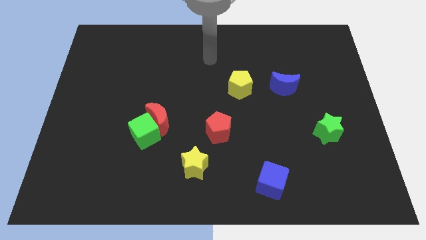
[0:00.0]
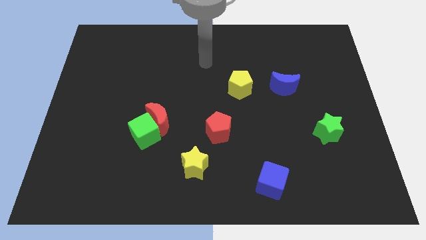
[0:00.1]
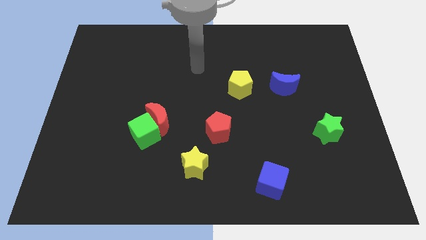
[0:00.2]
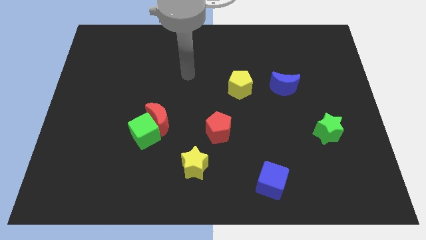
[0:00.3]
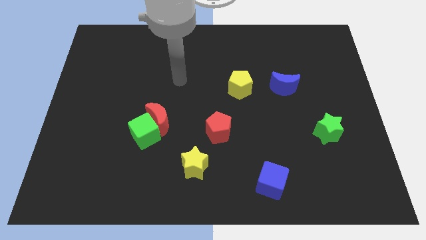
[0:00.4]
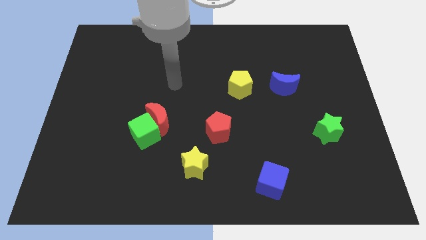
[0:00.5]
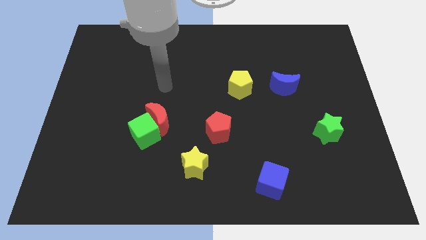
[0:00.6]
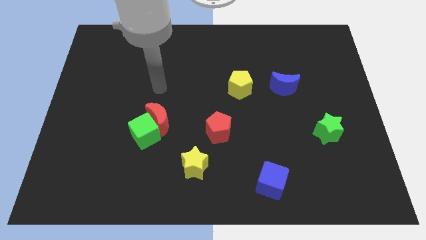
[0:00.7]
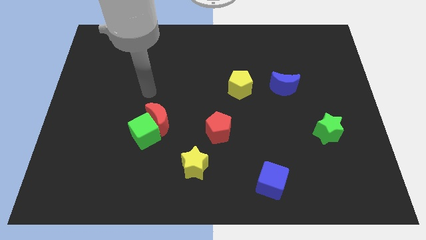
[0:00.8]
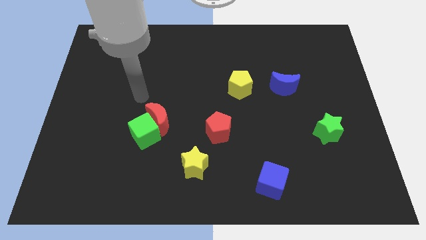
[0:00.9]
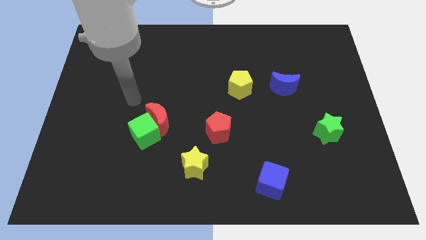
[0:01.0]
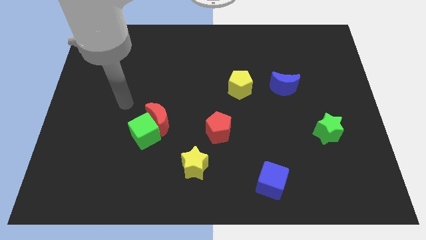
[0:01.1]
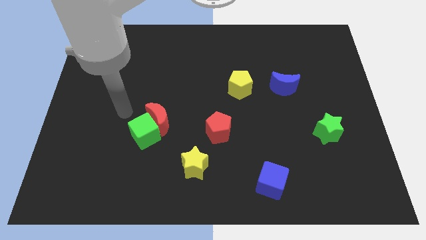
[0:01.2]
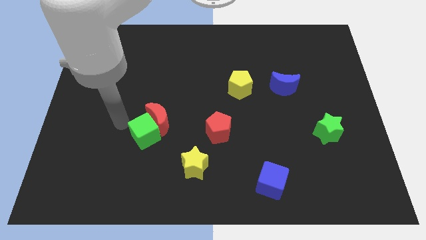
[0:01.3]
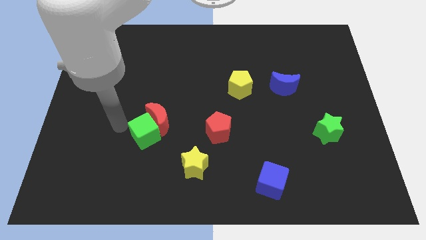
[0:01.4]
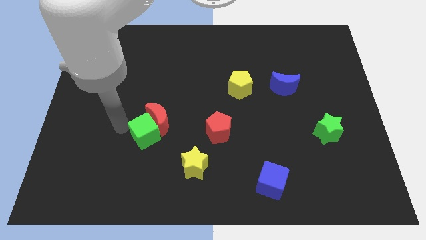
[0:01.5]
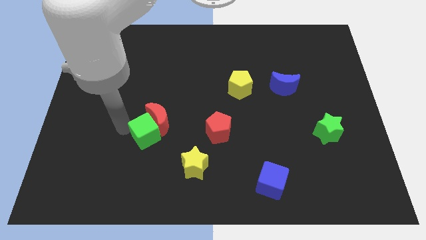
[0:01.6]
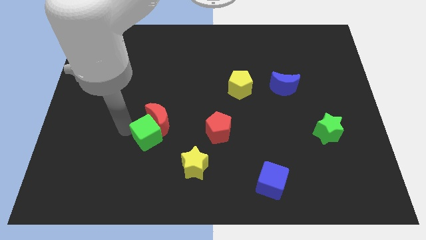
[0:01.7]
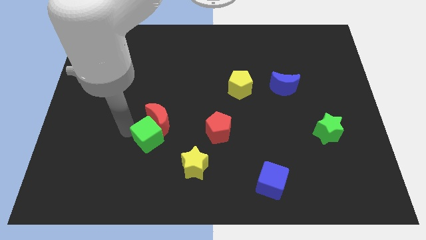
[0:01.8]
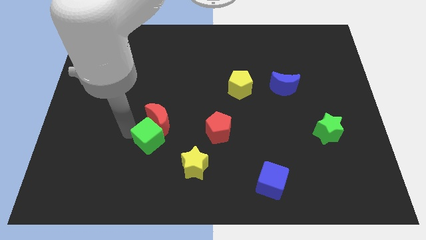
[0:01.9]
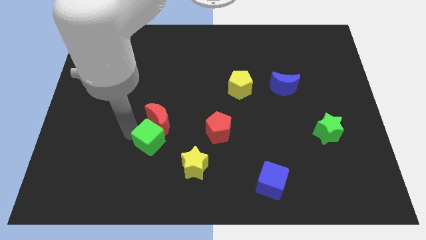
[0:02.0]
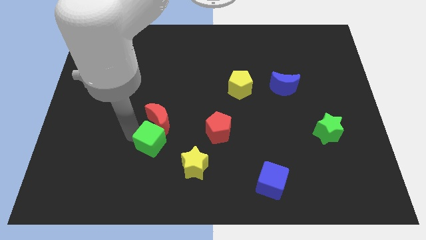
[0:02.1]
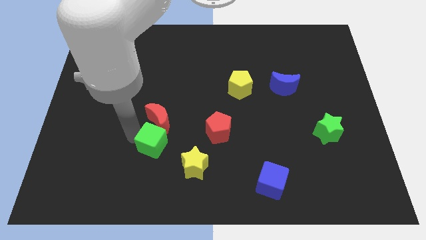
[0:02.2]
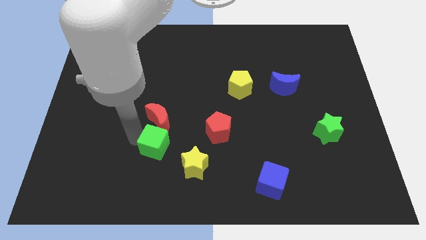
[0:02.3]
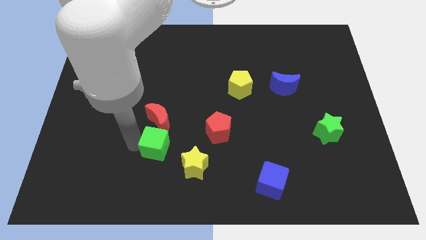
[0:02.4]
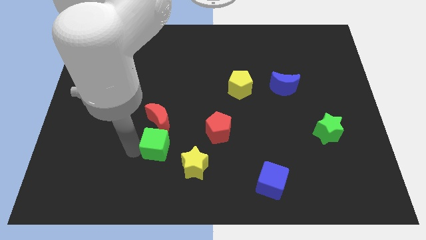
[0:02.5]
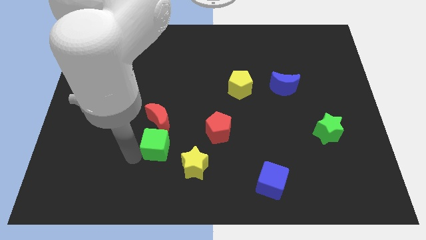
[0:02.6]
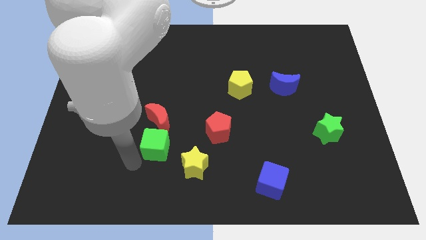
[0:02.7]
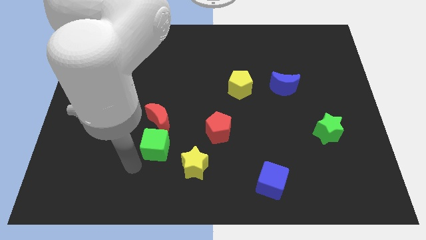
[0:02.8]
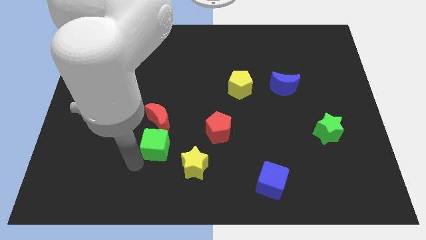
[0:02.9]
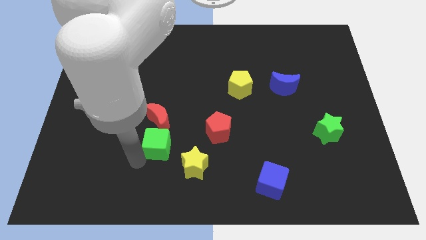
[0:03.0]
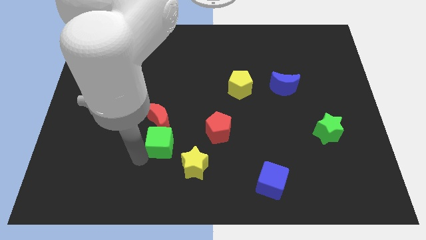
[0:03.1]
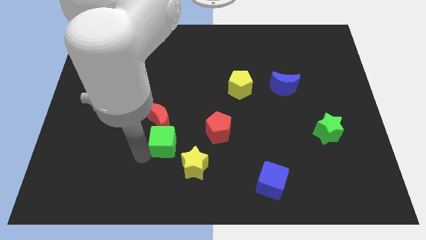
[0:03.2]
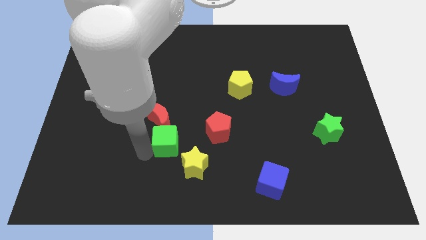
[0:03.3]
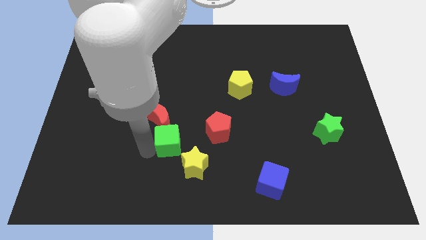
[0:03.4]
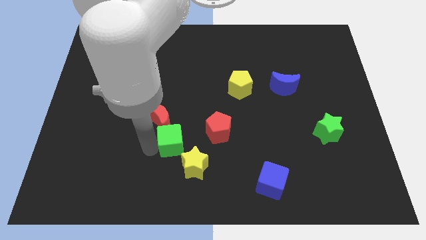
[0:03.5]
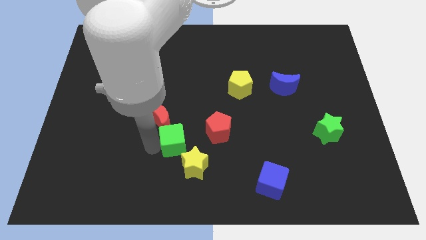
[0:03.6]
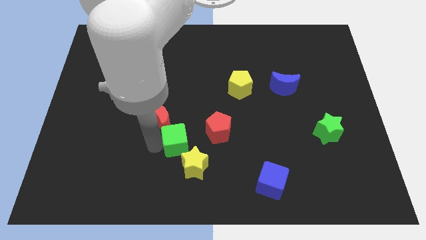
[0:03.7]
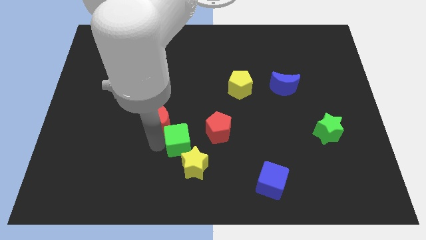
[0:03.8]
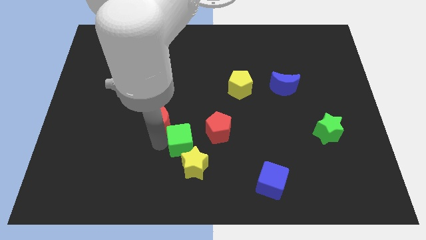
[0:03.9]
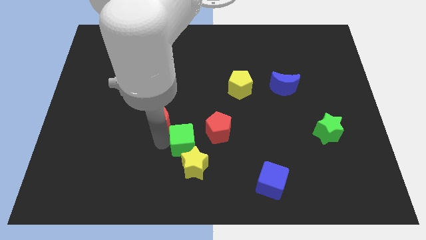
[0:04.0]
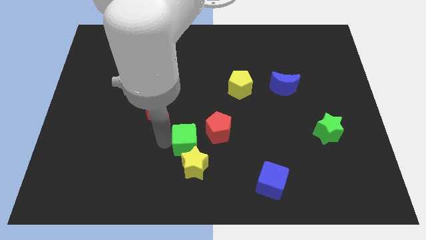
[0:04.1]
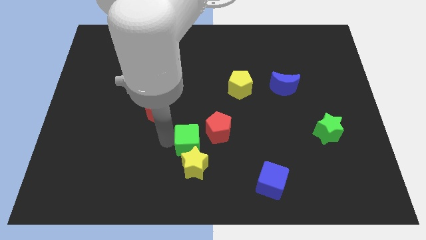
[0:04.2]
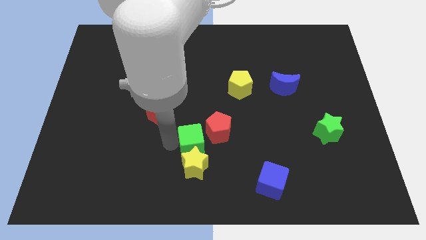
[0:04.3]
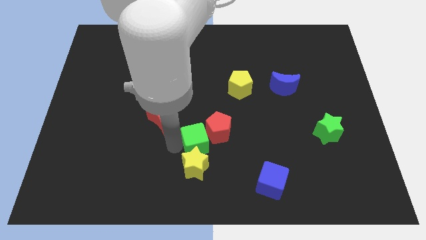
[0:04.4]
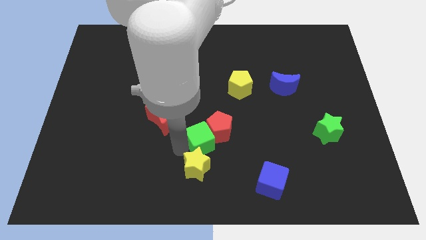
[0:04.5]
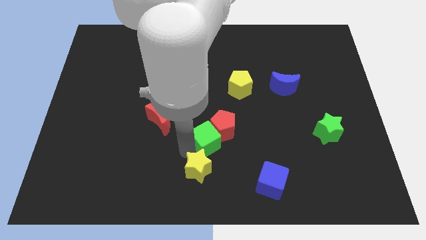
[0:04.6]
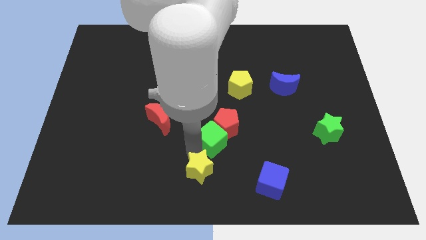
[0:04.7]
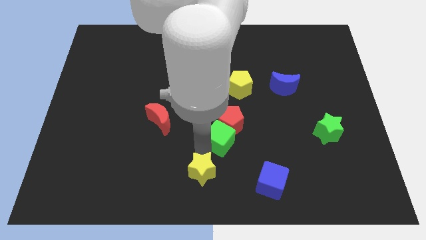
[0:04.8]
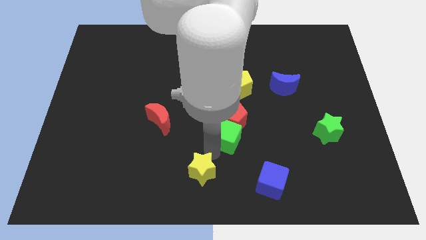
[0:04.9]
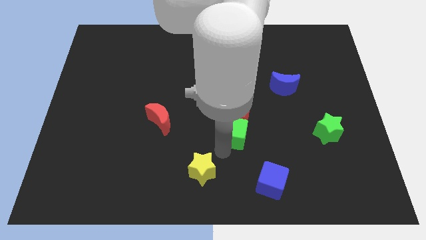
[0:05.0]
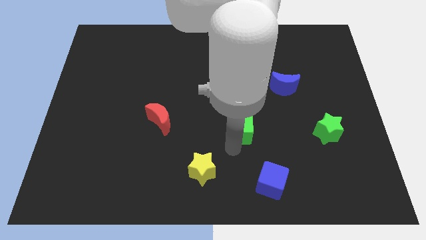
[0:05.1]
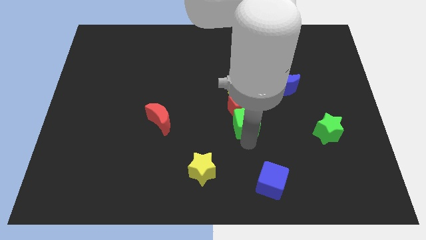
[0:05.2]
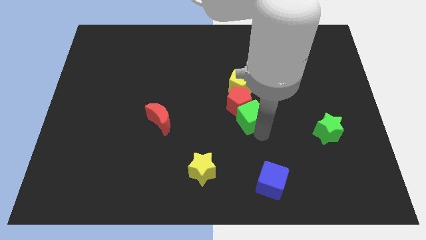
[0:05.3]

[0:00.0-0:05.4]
move the green cube diagonally down and to the left of the blue moon

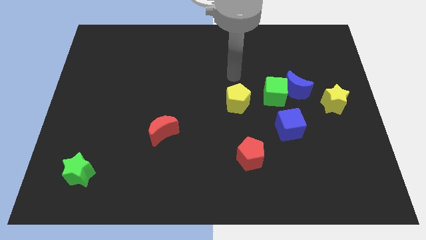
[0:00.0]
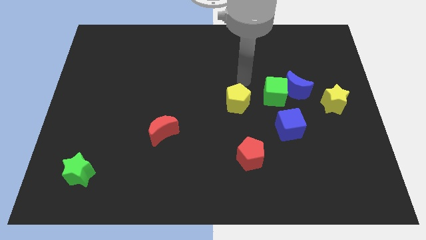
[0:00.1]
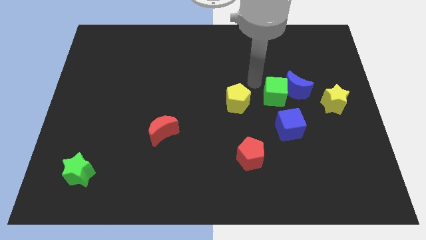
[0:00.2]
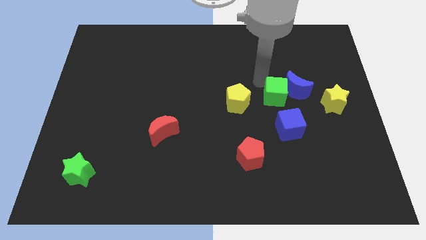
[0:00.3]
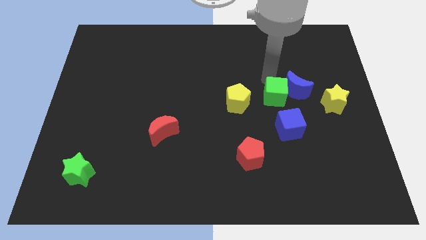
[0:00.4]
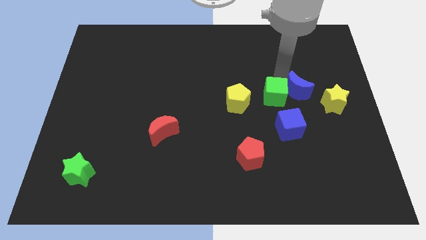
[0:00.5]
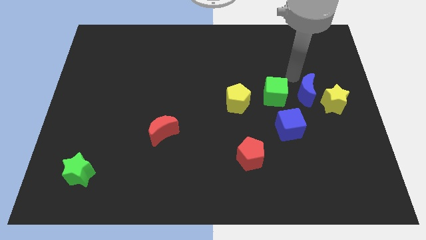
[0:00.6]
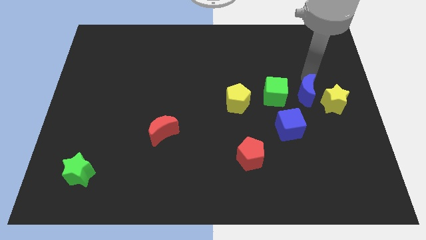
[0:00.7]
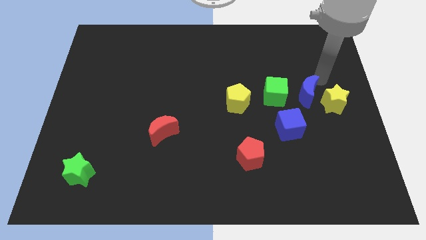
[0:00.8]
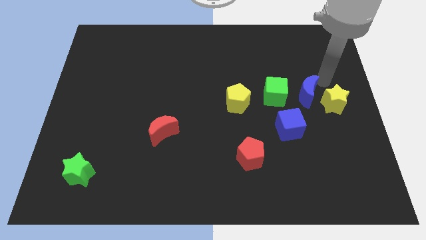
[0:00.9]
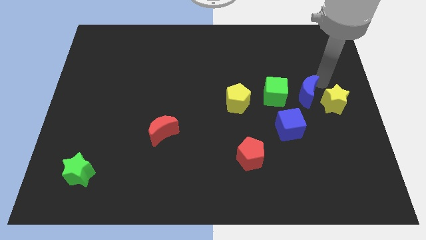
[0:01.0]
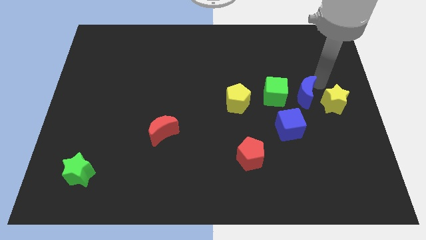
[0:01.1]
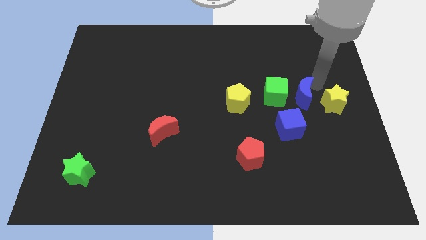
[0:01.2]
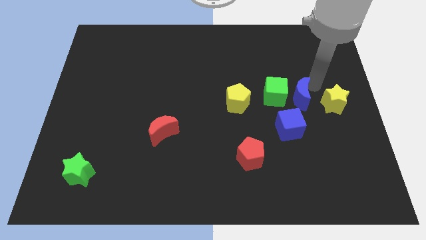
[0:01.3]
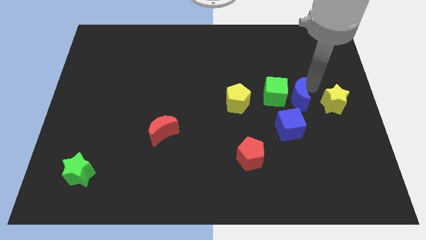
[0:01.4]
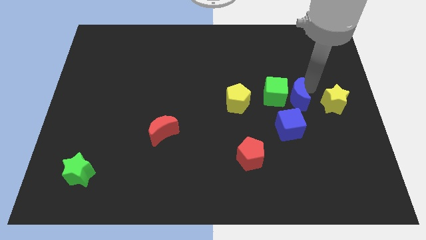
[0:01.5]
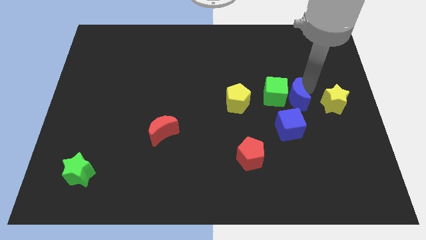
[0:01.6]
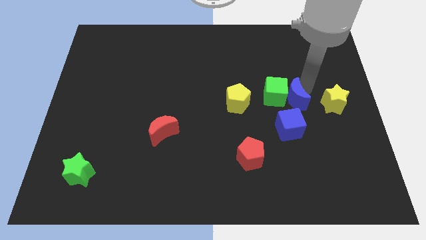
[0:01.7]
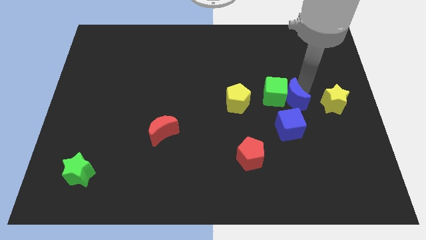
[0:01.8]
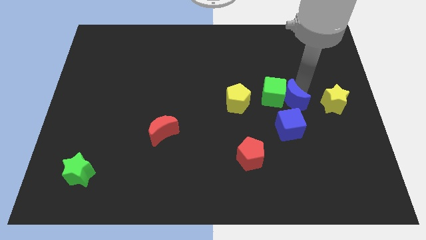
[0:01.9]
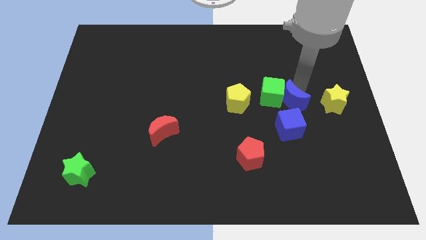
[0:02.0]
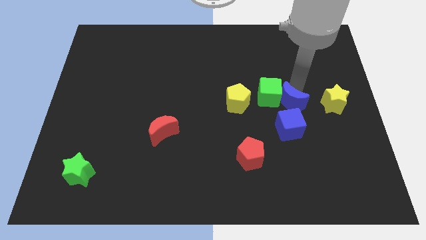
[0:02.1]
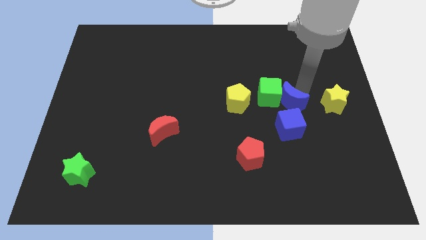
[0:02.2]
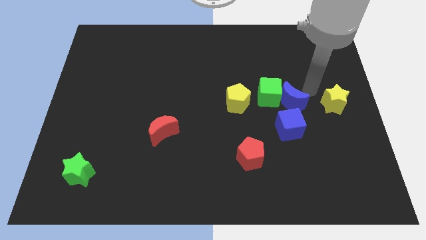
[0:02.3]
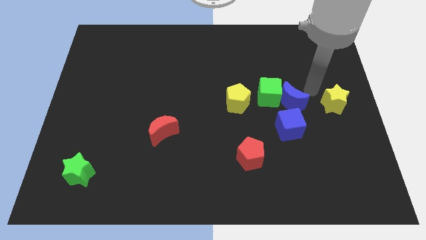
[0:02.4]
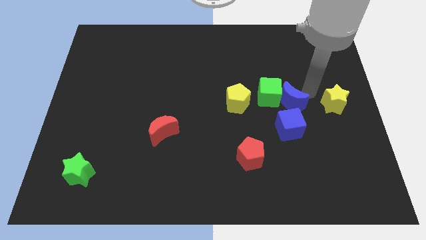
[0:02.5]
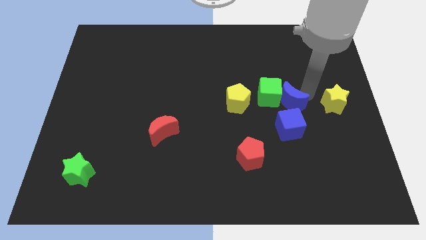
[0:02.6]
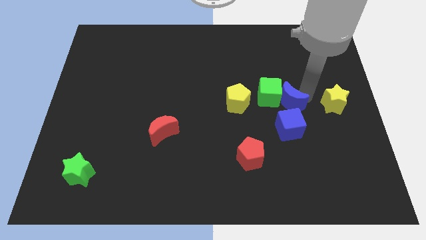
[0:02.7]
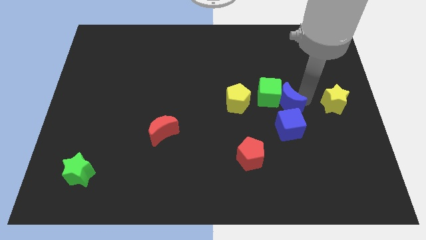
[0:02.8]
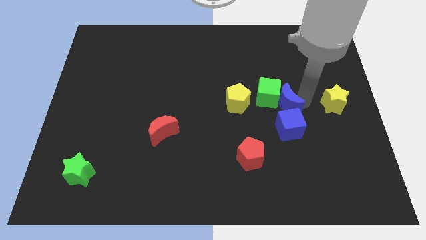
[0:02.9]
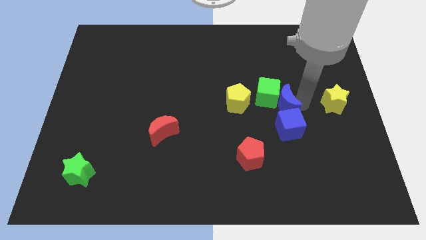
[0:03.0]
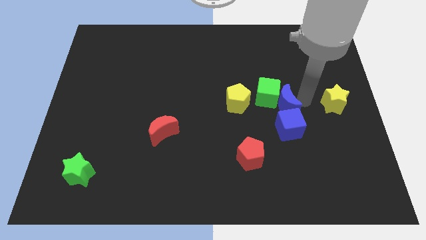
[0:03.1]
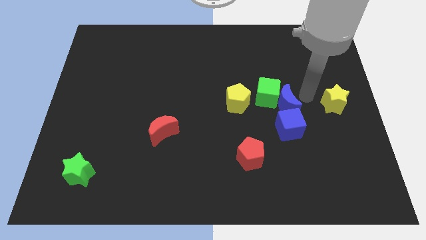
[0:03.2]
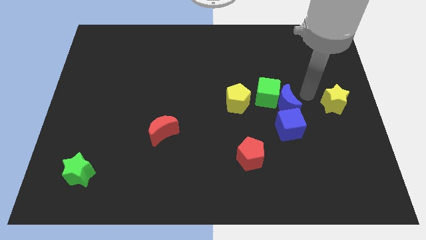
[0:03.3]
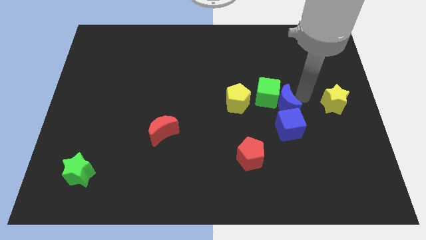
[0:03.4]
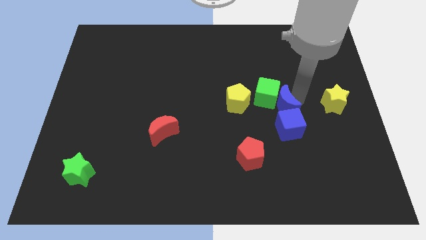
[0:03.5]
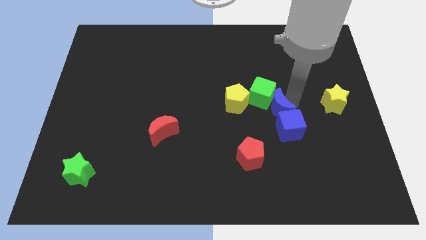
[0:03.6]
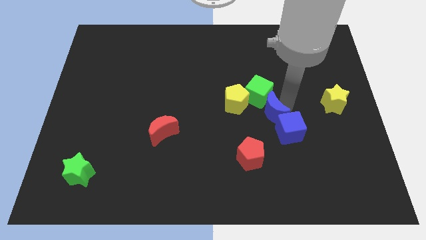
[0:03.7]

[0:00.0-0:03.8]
move the blue moon to the bottom right of the yellow pentagon
